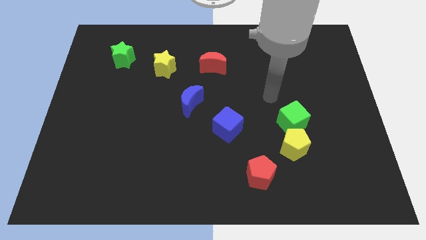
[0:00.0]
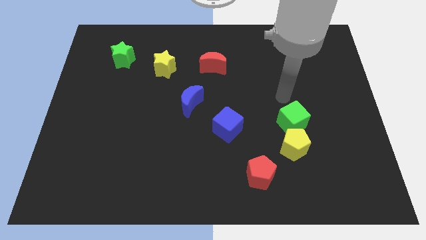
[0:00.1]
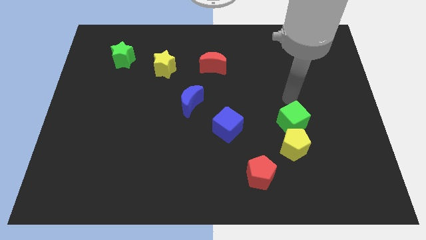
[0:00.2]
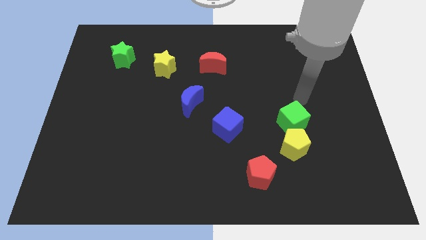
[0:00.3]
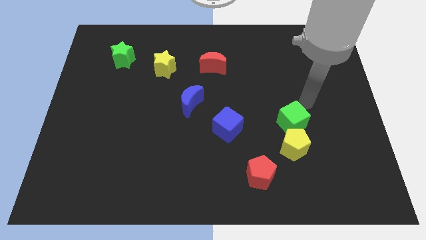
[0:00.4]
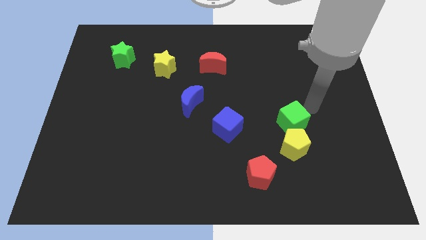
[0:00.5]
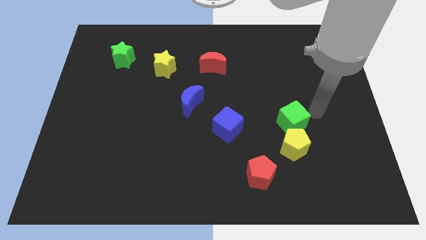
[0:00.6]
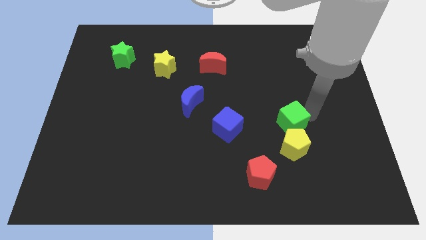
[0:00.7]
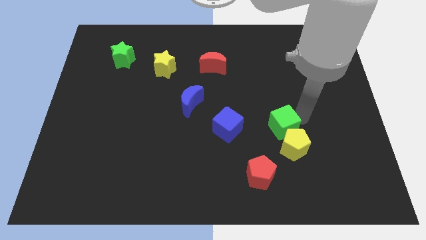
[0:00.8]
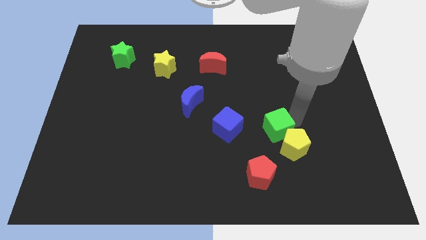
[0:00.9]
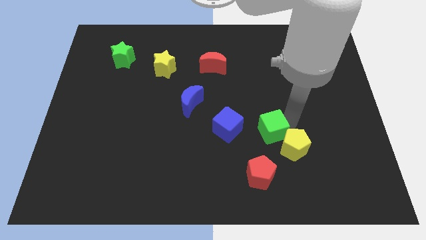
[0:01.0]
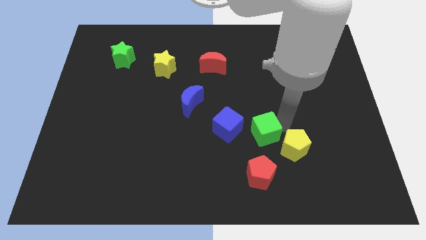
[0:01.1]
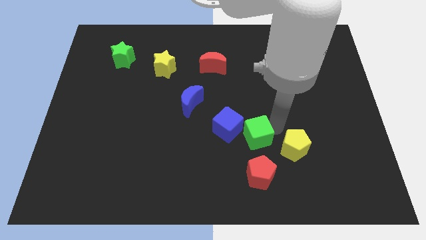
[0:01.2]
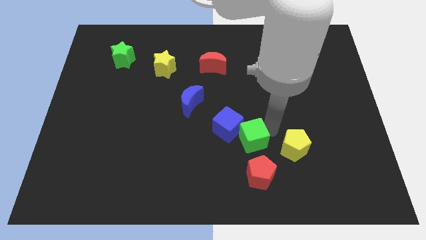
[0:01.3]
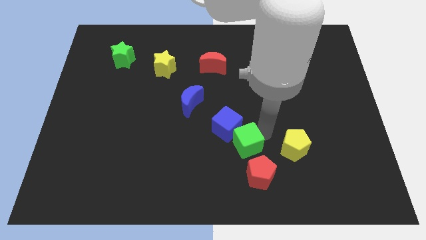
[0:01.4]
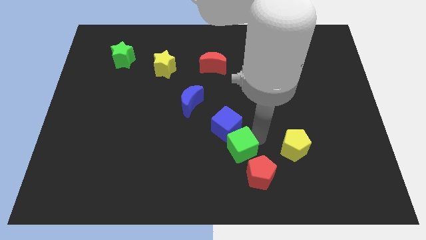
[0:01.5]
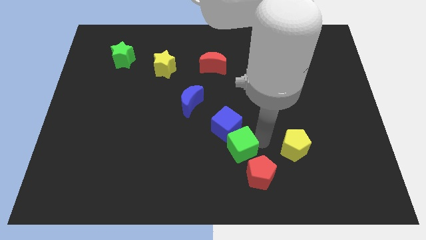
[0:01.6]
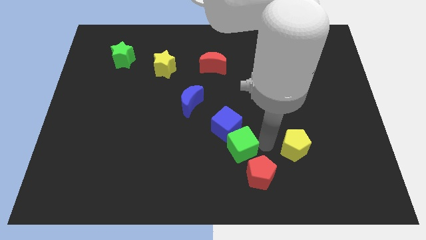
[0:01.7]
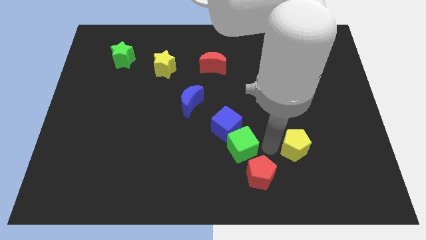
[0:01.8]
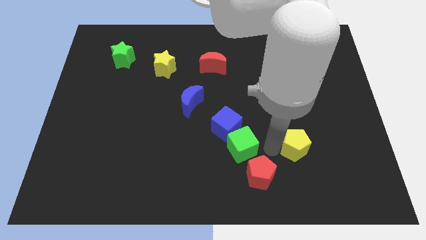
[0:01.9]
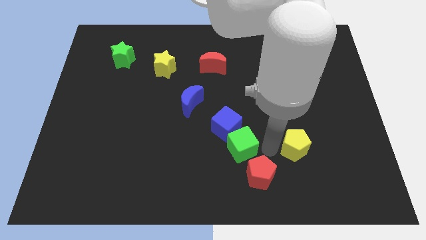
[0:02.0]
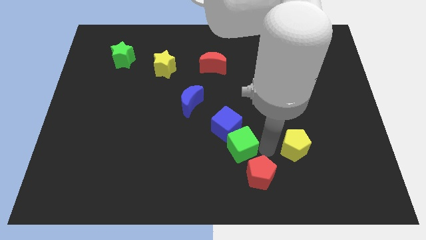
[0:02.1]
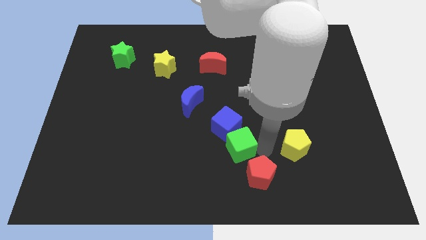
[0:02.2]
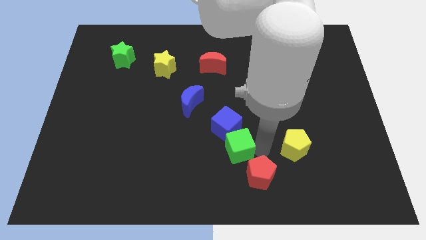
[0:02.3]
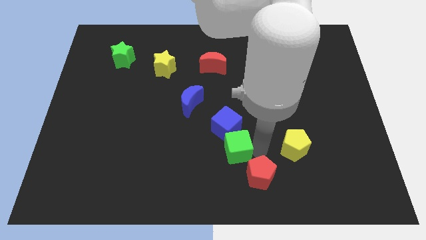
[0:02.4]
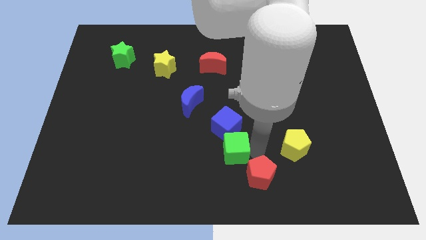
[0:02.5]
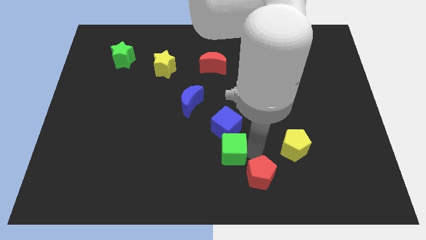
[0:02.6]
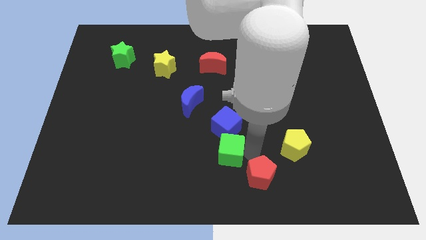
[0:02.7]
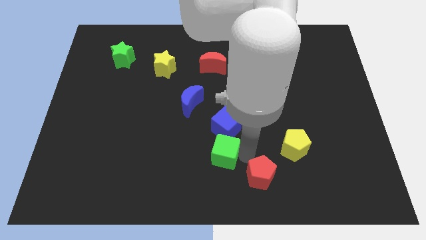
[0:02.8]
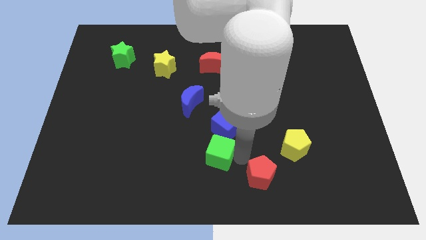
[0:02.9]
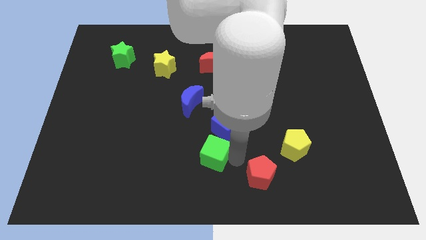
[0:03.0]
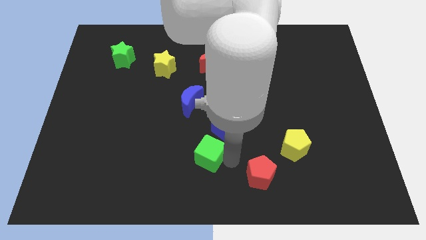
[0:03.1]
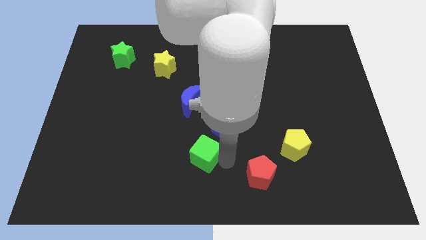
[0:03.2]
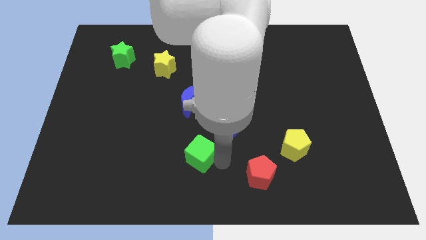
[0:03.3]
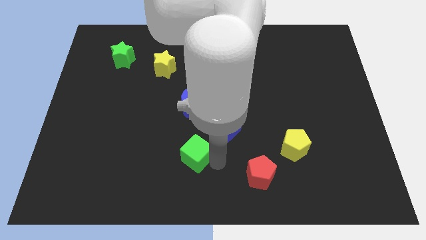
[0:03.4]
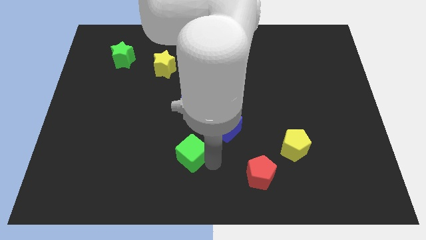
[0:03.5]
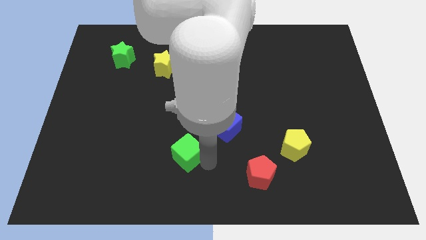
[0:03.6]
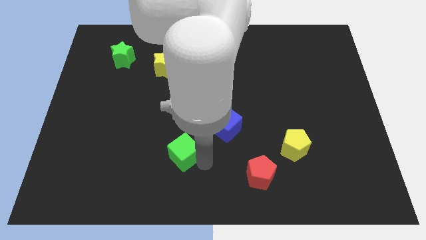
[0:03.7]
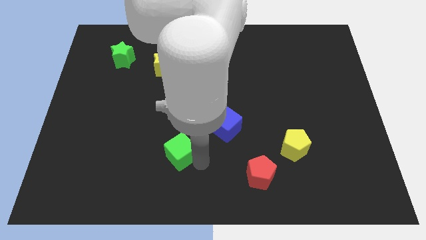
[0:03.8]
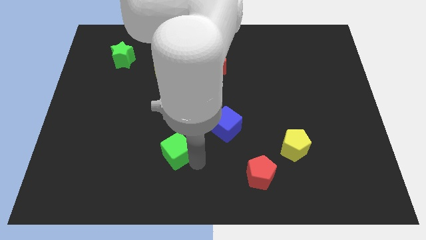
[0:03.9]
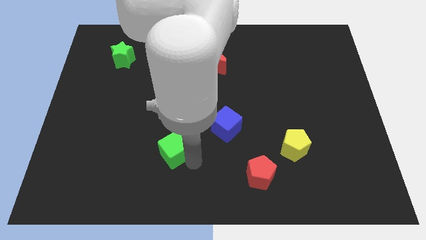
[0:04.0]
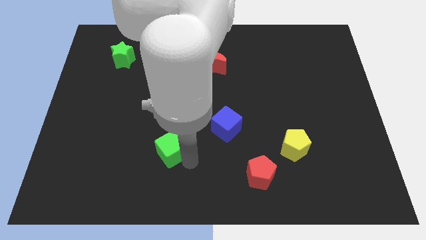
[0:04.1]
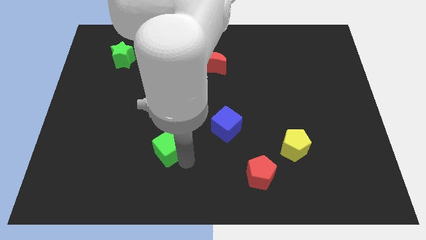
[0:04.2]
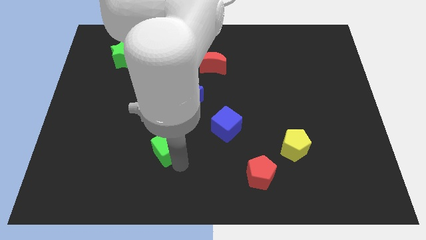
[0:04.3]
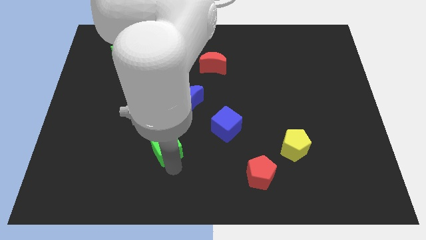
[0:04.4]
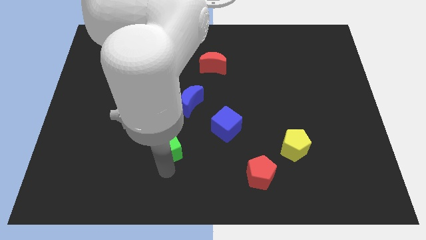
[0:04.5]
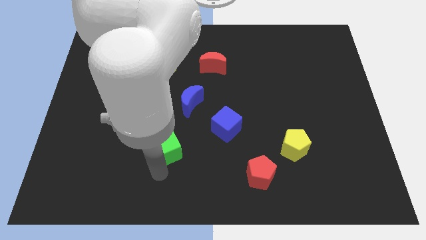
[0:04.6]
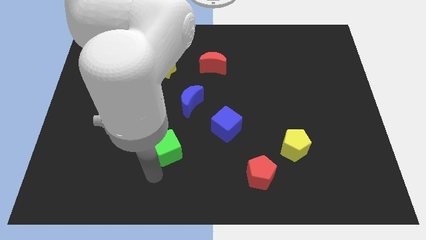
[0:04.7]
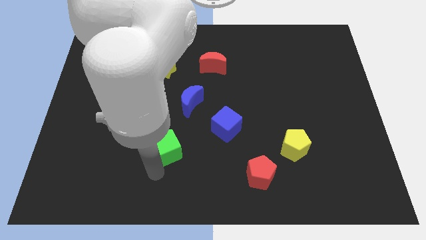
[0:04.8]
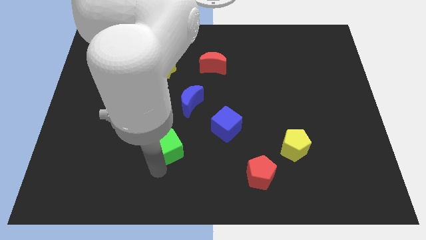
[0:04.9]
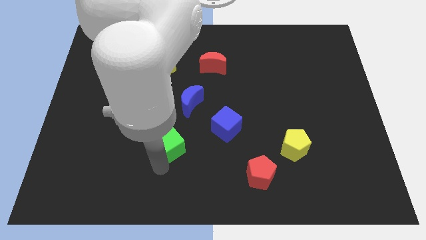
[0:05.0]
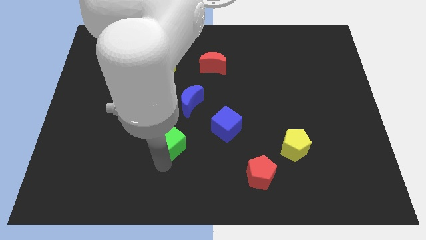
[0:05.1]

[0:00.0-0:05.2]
put the green cube just left of the blue cube

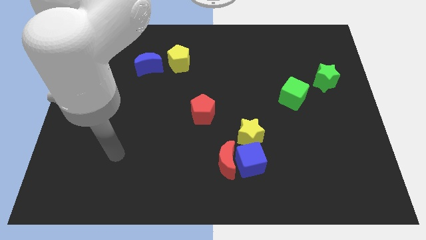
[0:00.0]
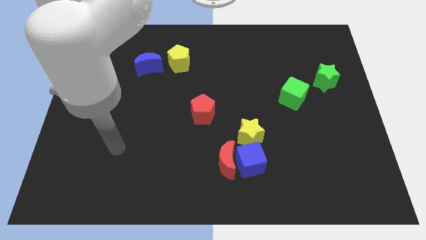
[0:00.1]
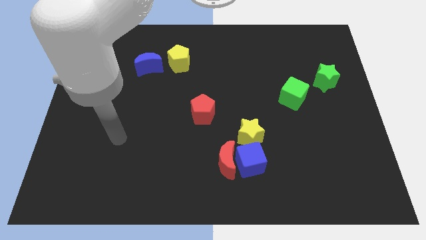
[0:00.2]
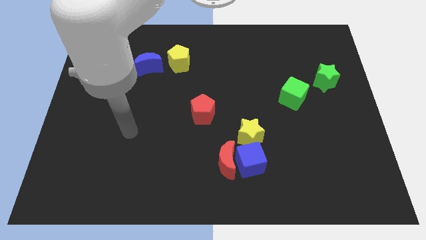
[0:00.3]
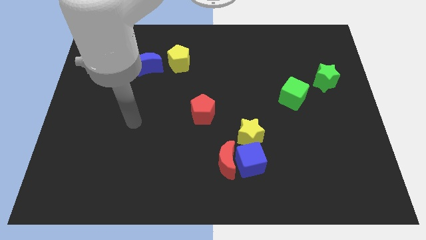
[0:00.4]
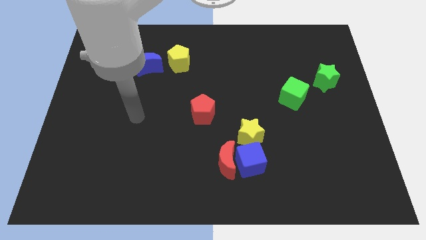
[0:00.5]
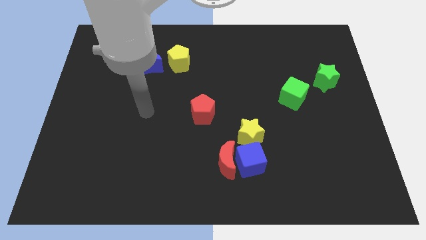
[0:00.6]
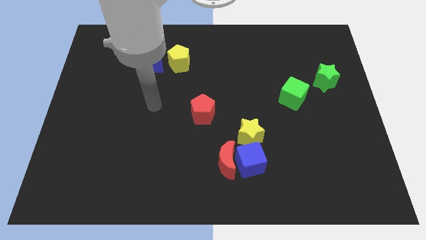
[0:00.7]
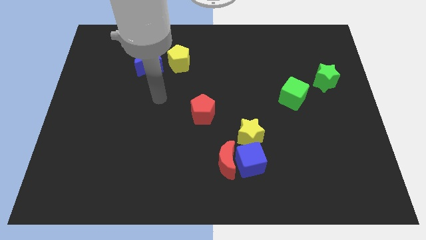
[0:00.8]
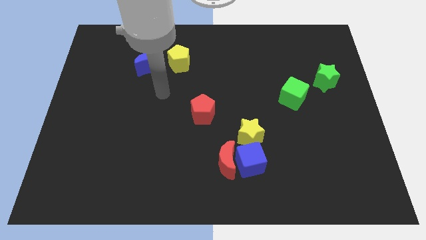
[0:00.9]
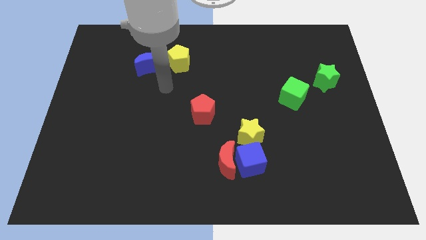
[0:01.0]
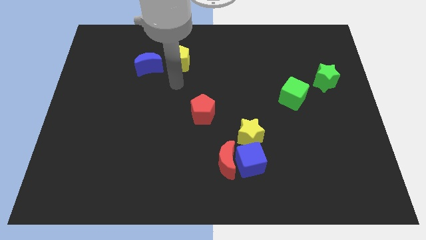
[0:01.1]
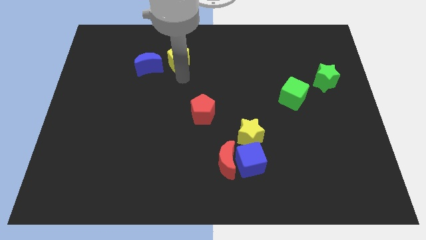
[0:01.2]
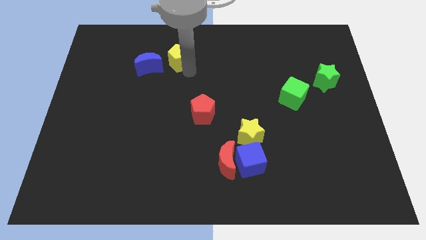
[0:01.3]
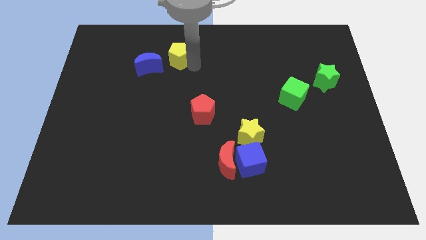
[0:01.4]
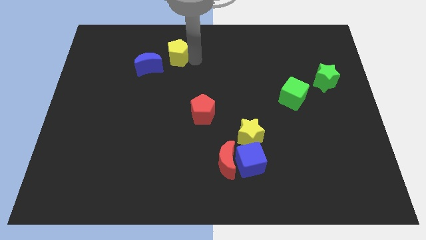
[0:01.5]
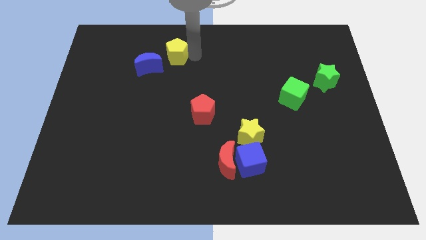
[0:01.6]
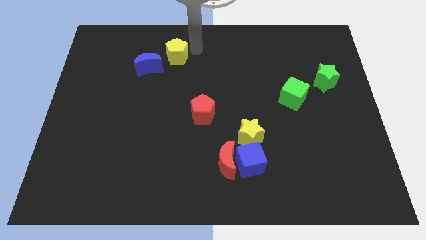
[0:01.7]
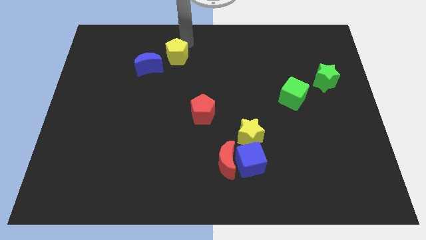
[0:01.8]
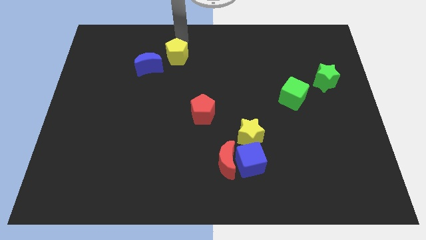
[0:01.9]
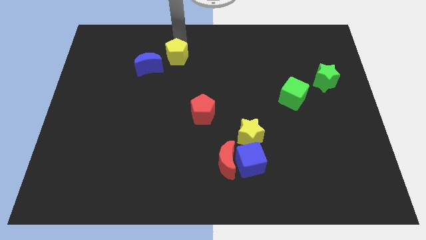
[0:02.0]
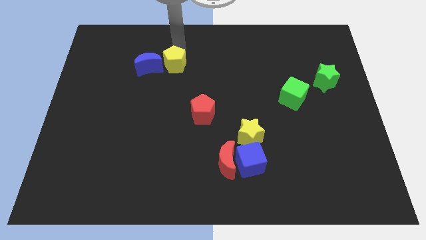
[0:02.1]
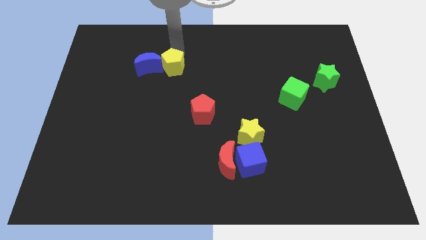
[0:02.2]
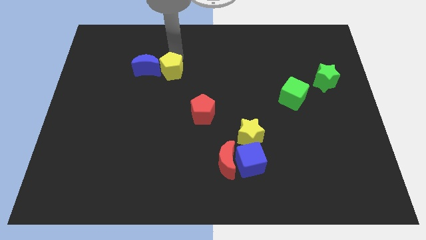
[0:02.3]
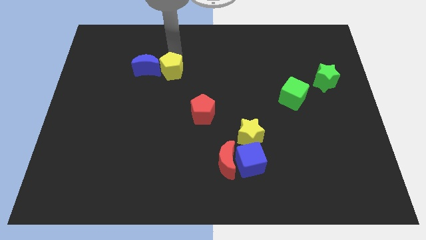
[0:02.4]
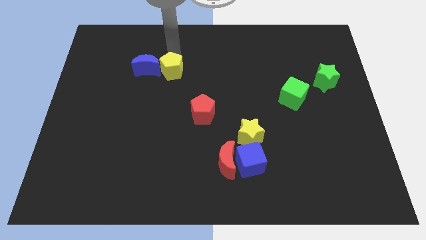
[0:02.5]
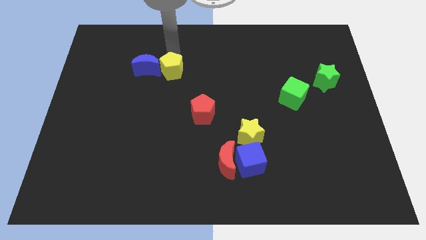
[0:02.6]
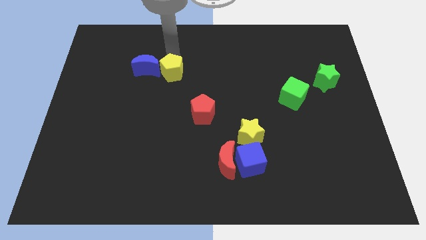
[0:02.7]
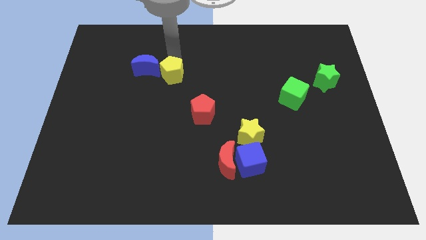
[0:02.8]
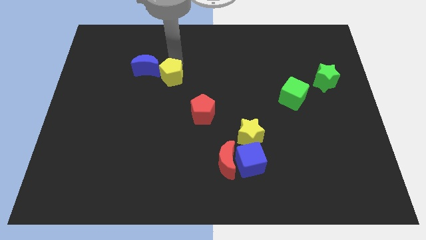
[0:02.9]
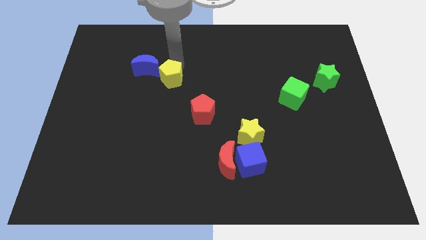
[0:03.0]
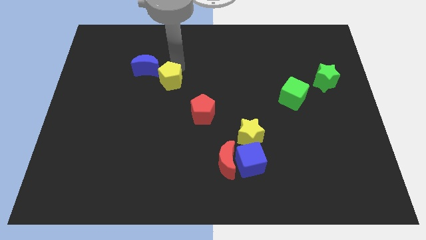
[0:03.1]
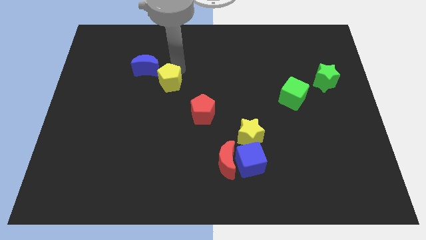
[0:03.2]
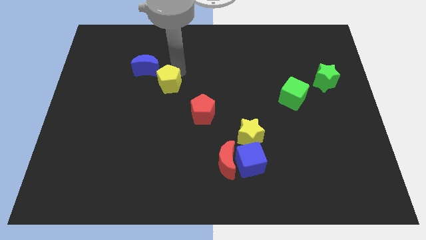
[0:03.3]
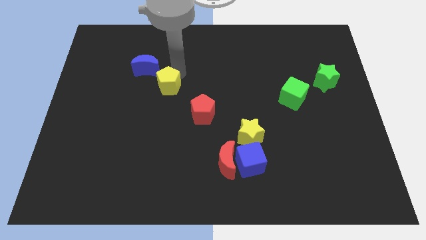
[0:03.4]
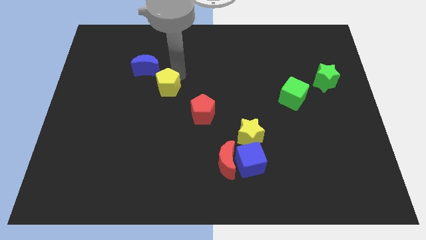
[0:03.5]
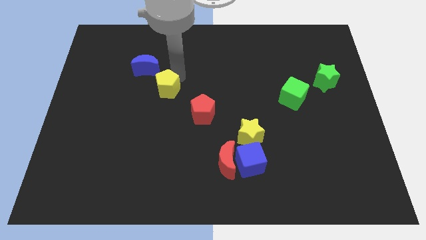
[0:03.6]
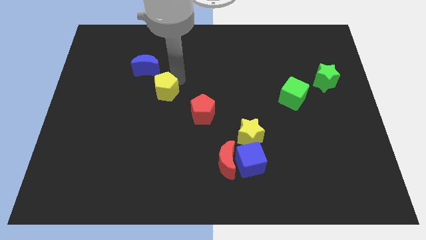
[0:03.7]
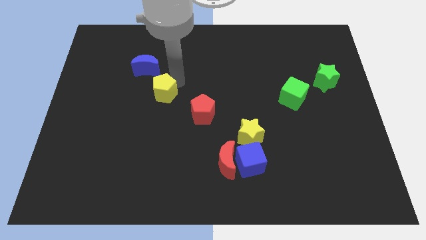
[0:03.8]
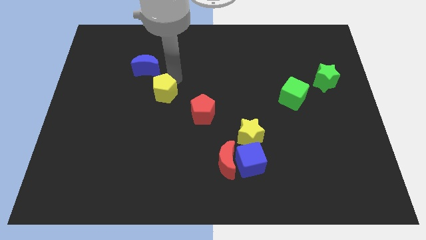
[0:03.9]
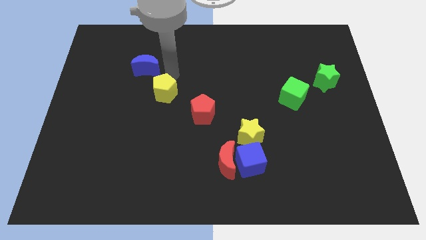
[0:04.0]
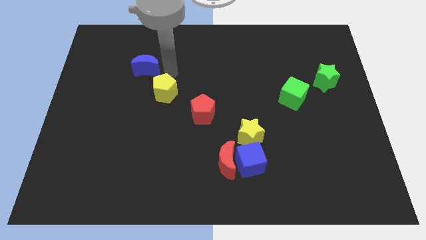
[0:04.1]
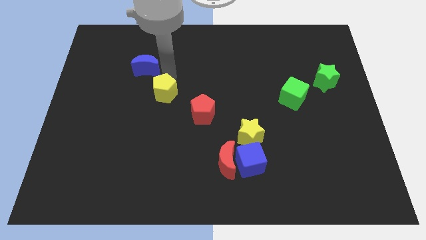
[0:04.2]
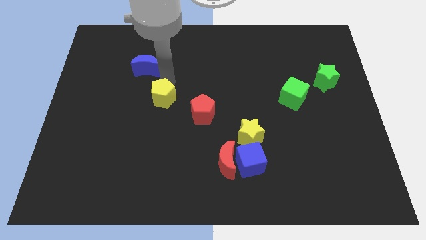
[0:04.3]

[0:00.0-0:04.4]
push the yellow pentagon just left of the red pentagon
